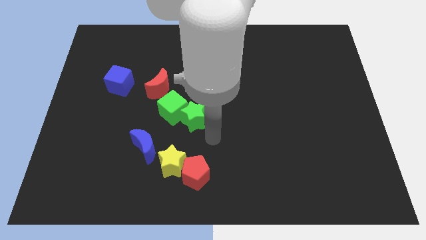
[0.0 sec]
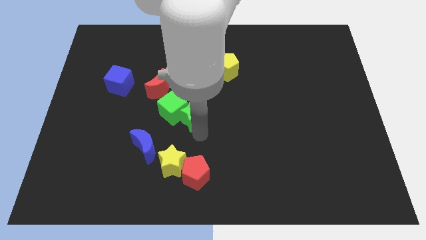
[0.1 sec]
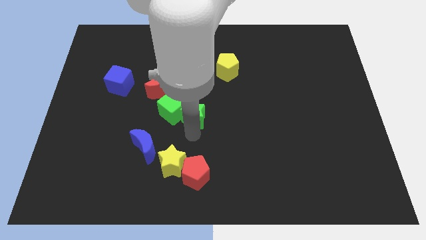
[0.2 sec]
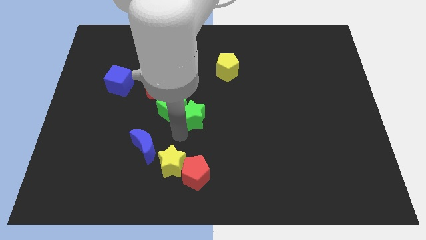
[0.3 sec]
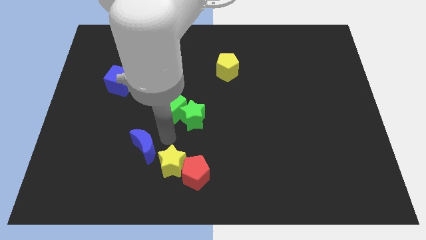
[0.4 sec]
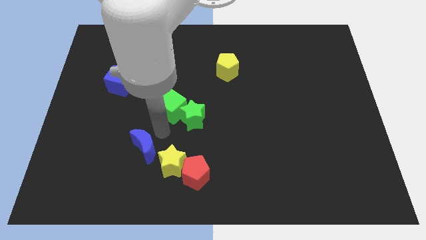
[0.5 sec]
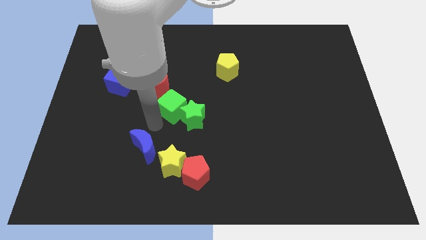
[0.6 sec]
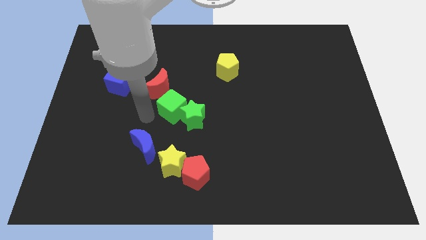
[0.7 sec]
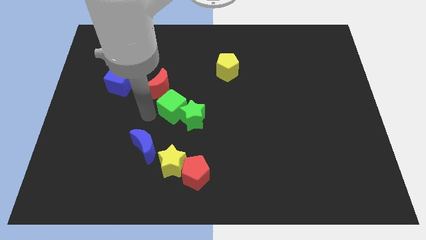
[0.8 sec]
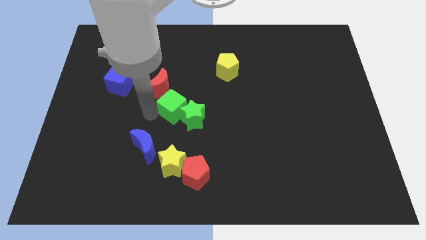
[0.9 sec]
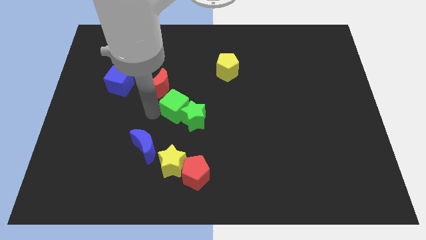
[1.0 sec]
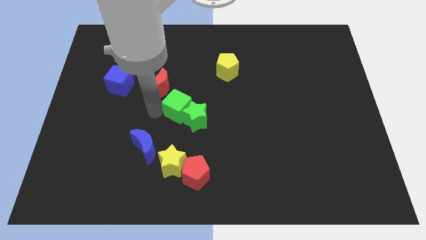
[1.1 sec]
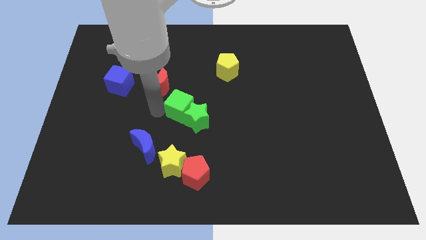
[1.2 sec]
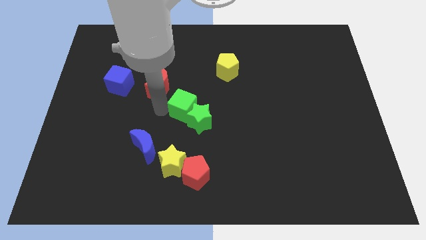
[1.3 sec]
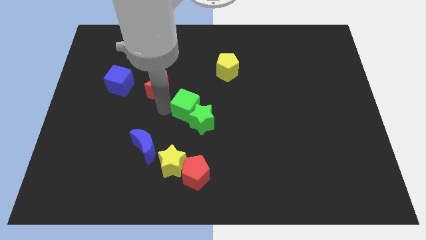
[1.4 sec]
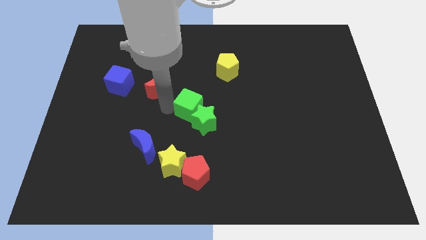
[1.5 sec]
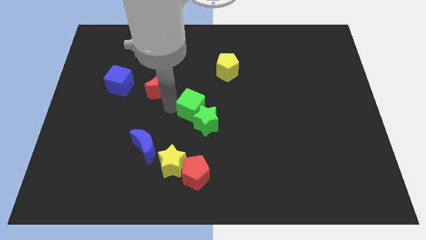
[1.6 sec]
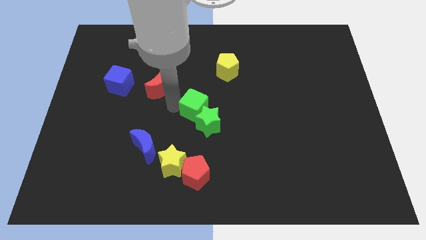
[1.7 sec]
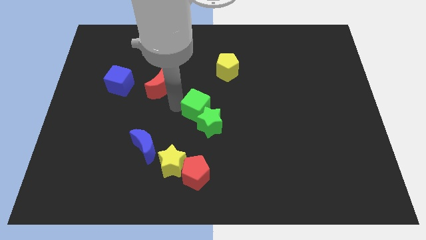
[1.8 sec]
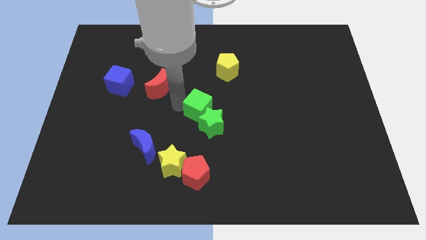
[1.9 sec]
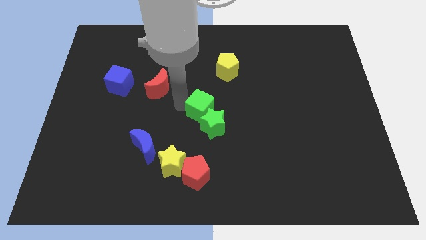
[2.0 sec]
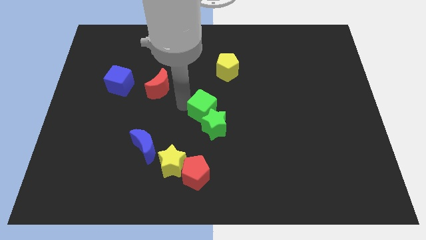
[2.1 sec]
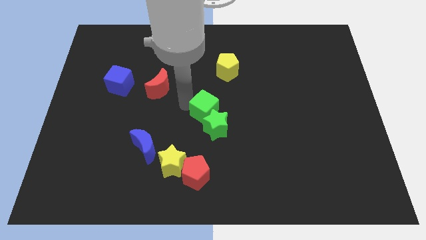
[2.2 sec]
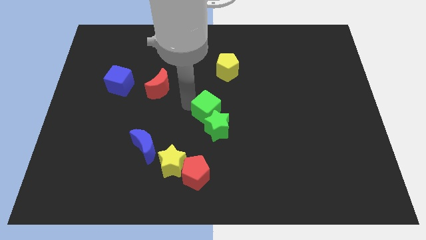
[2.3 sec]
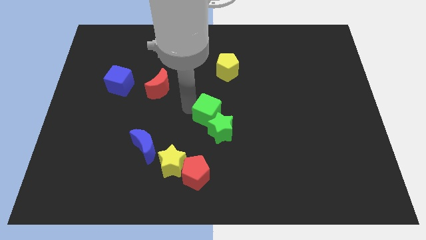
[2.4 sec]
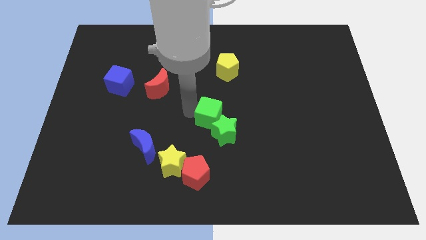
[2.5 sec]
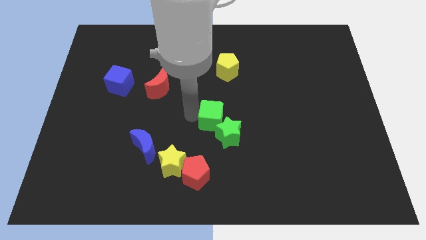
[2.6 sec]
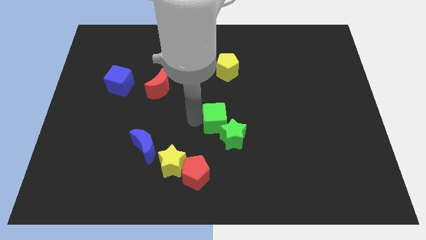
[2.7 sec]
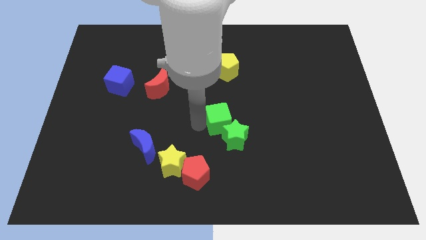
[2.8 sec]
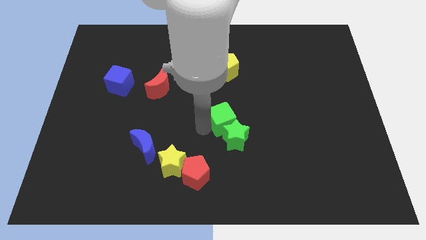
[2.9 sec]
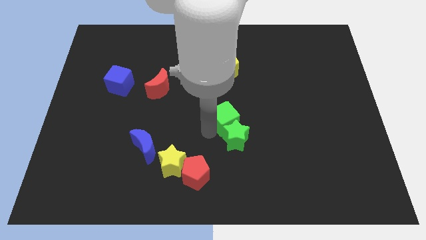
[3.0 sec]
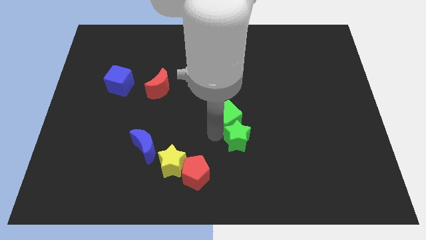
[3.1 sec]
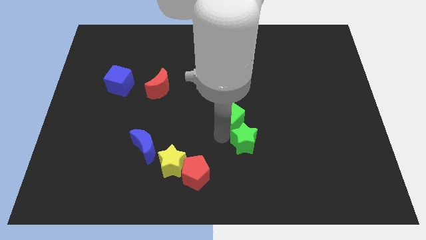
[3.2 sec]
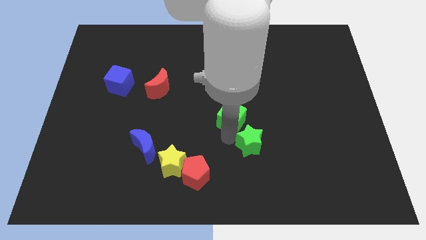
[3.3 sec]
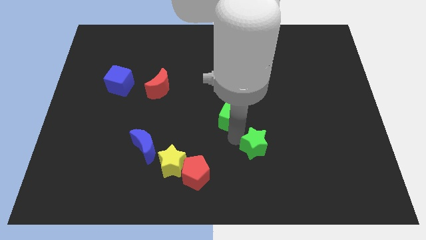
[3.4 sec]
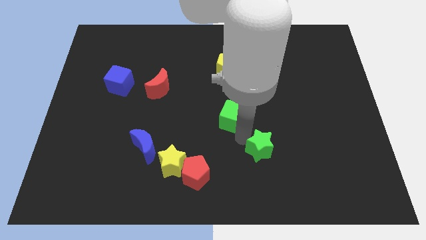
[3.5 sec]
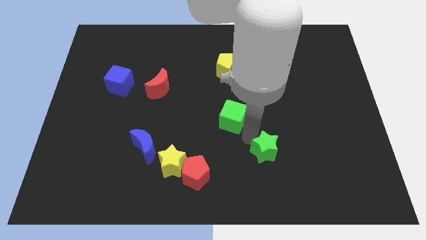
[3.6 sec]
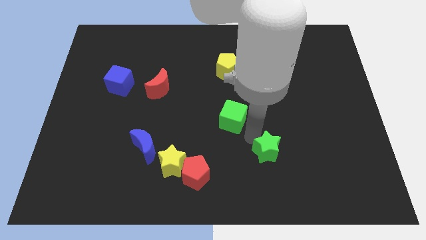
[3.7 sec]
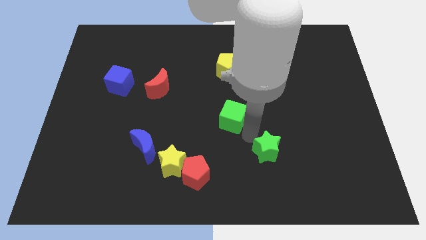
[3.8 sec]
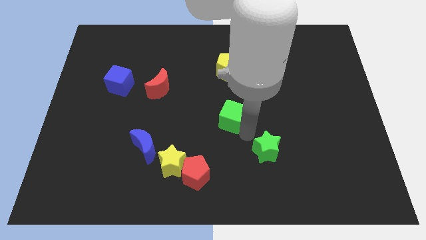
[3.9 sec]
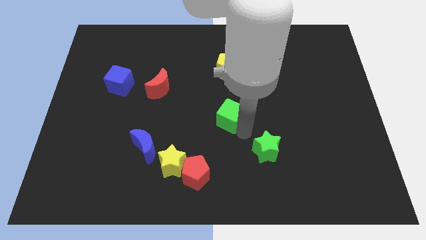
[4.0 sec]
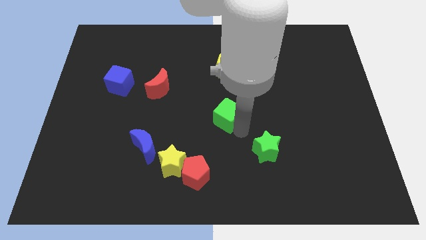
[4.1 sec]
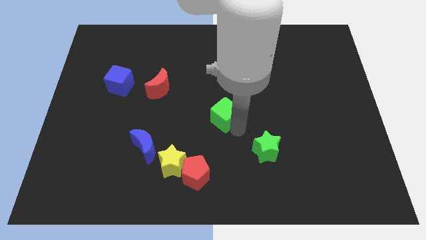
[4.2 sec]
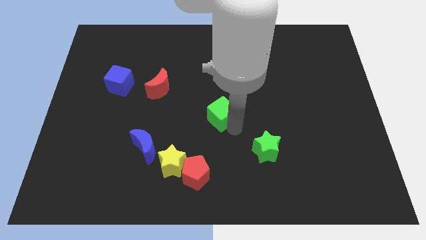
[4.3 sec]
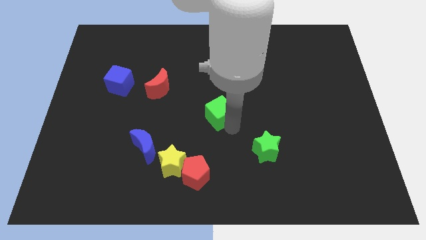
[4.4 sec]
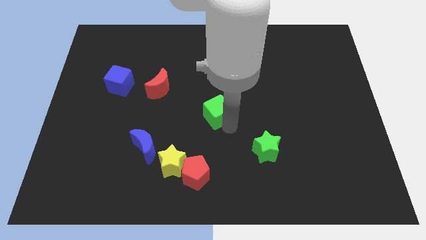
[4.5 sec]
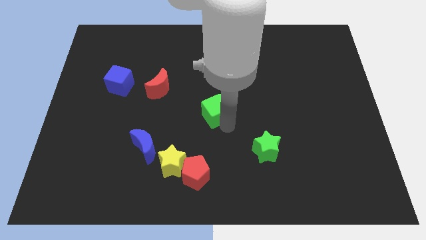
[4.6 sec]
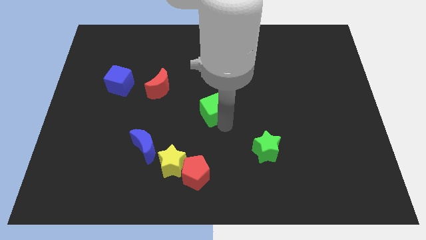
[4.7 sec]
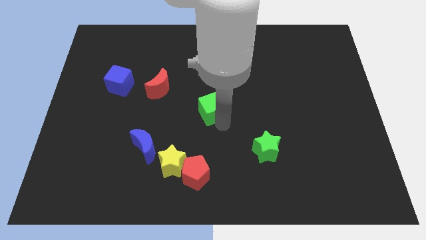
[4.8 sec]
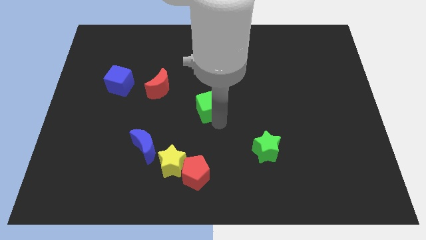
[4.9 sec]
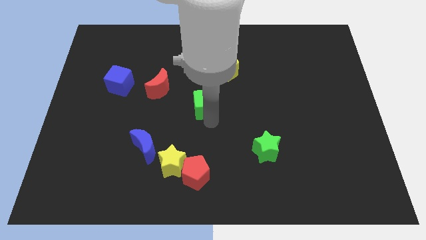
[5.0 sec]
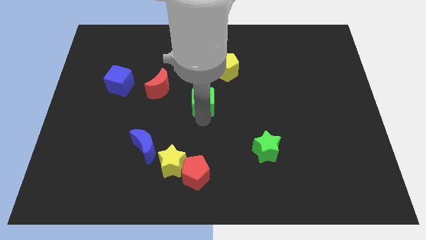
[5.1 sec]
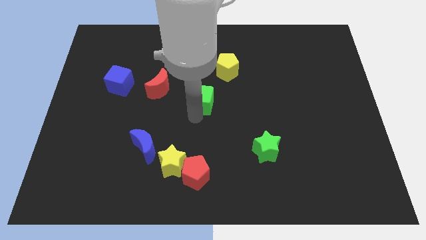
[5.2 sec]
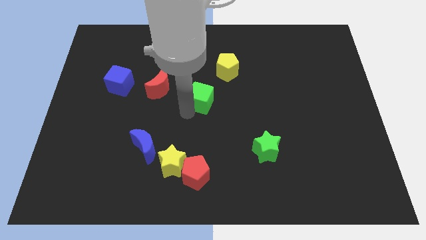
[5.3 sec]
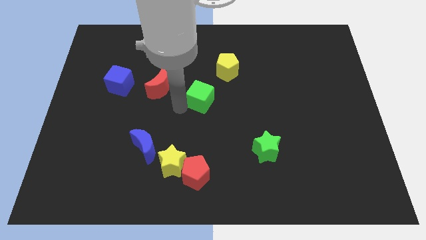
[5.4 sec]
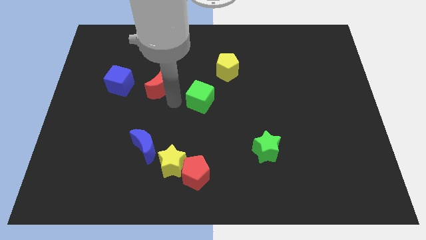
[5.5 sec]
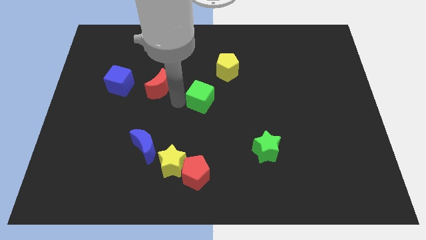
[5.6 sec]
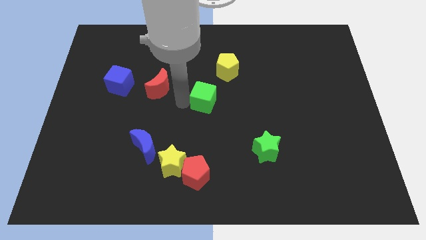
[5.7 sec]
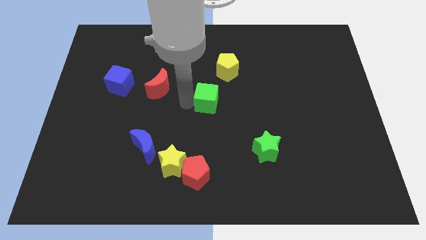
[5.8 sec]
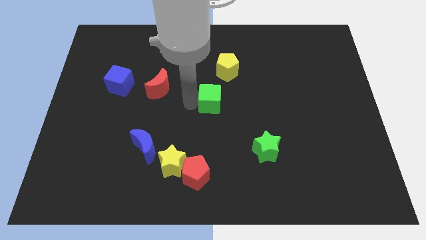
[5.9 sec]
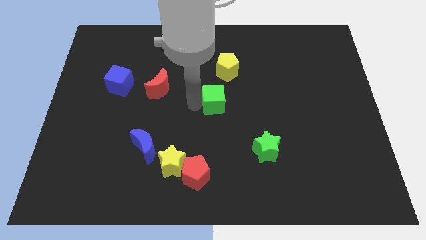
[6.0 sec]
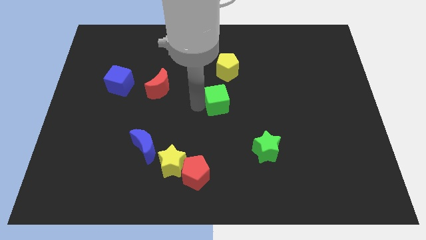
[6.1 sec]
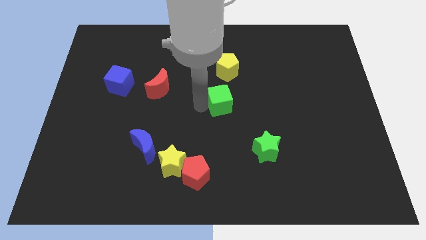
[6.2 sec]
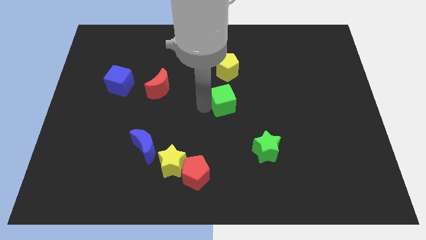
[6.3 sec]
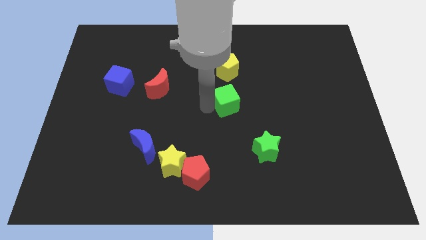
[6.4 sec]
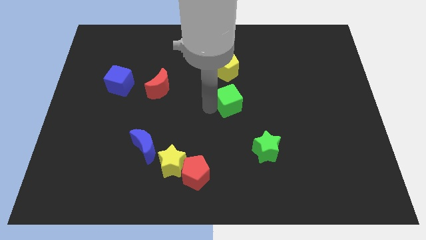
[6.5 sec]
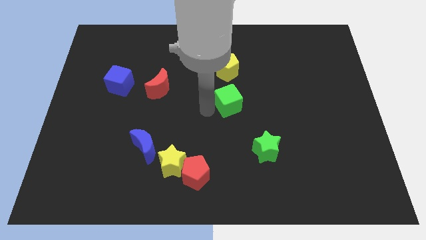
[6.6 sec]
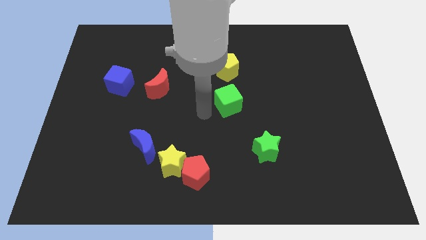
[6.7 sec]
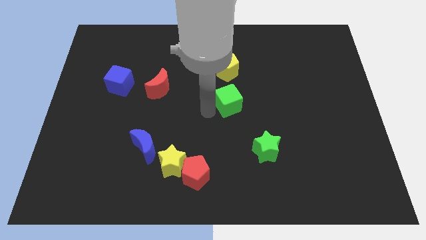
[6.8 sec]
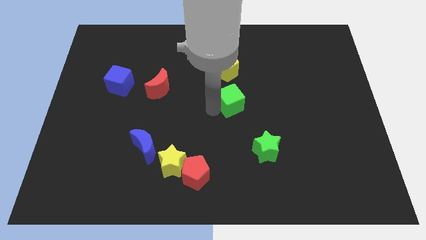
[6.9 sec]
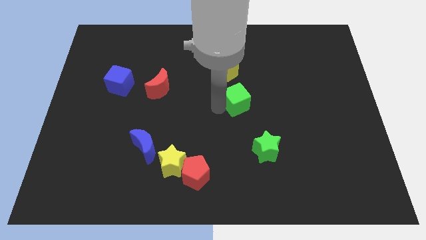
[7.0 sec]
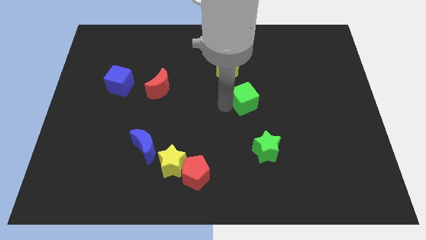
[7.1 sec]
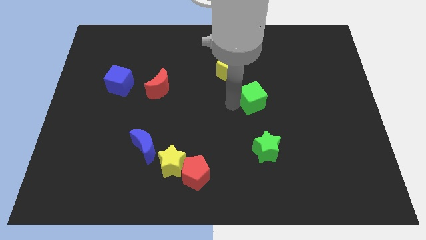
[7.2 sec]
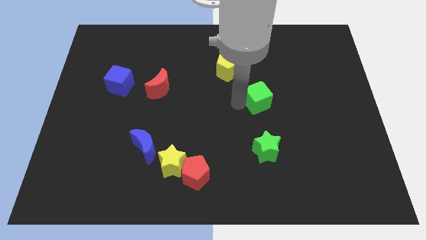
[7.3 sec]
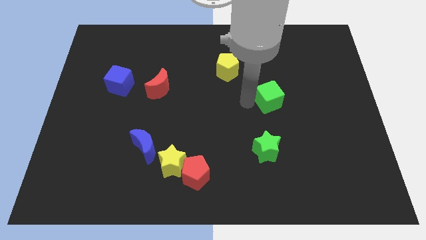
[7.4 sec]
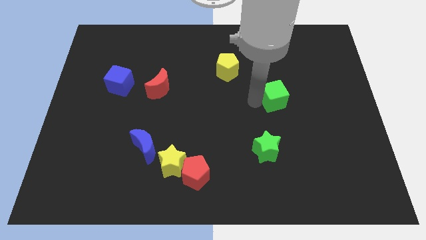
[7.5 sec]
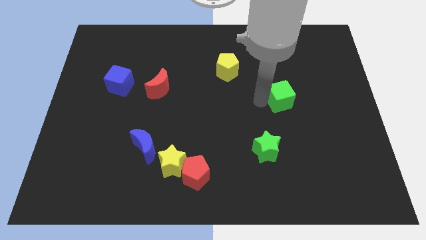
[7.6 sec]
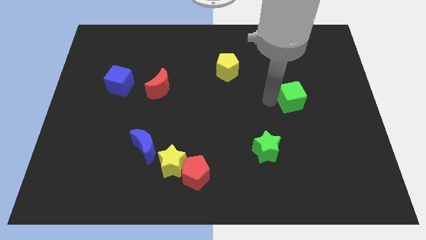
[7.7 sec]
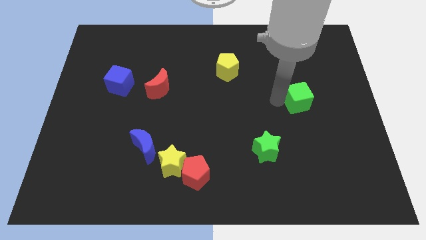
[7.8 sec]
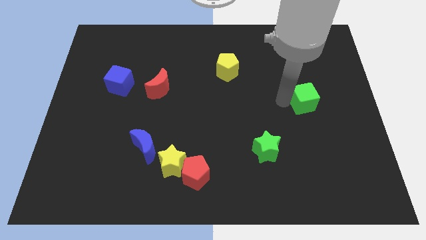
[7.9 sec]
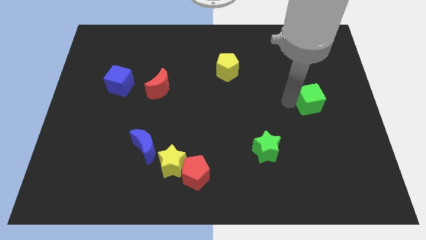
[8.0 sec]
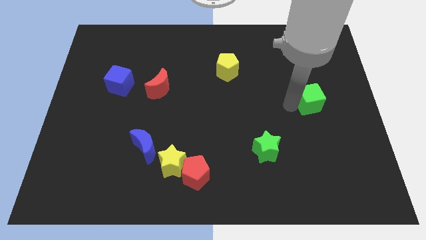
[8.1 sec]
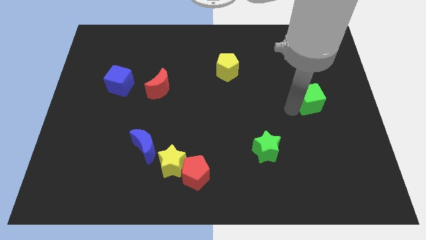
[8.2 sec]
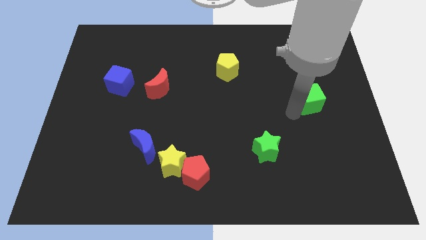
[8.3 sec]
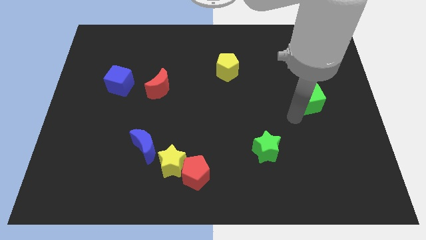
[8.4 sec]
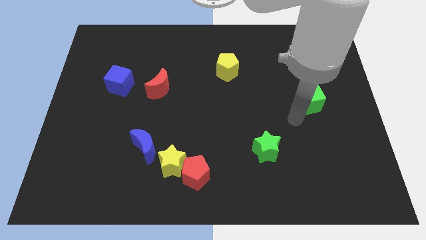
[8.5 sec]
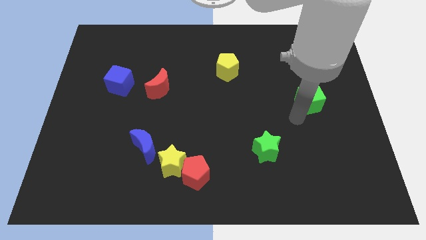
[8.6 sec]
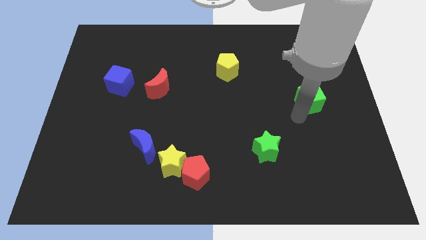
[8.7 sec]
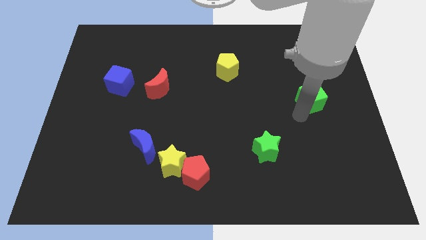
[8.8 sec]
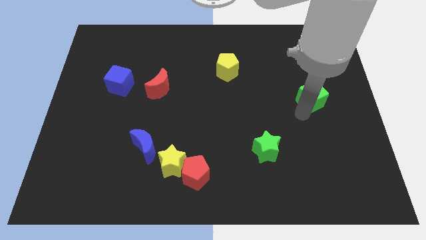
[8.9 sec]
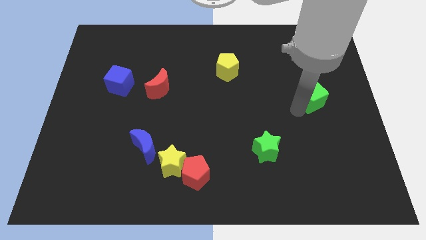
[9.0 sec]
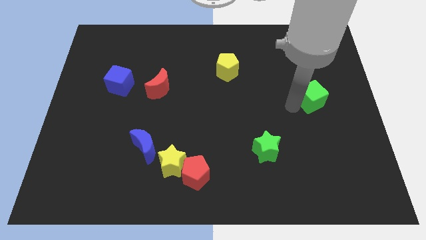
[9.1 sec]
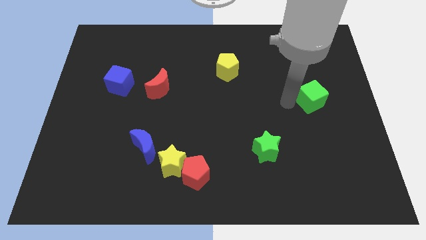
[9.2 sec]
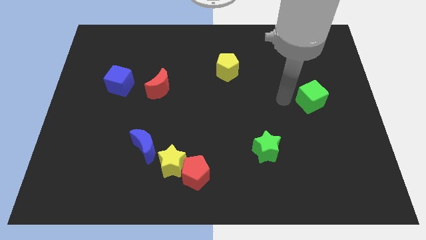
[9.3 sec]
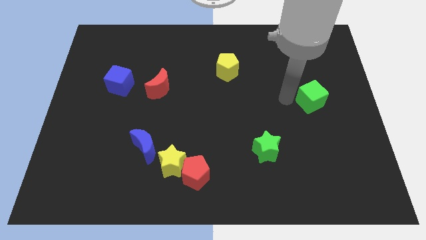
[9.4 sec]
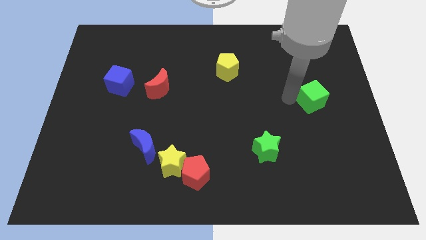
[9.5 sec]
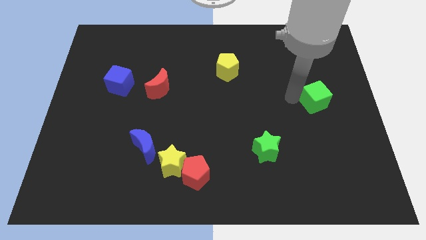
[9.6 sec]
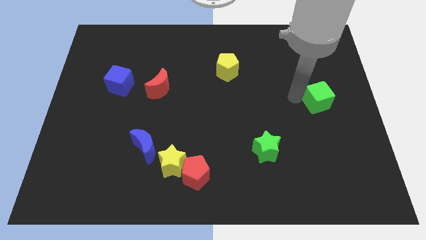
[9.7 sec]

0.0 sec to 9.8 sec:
put the green cube to the center right
